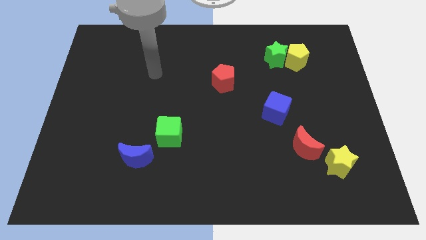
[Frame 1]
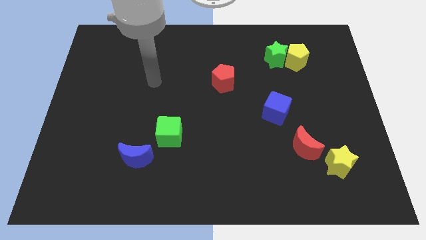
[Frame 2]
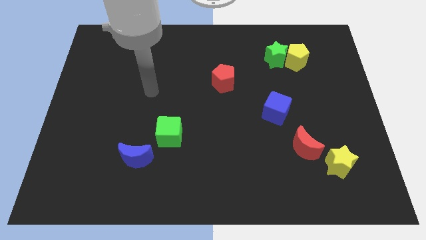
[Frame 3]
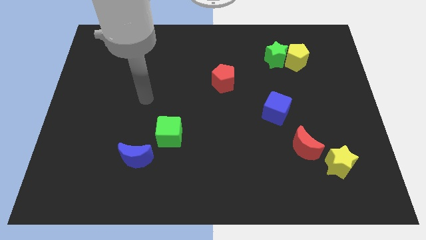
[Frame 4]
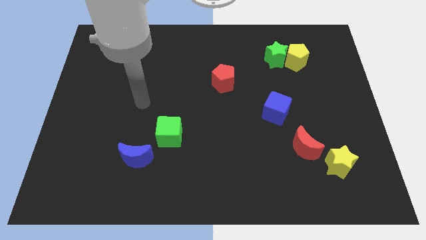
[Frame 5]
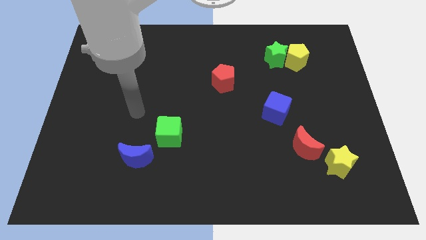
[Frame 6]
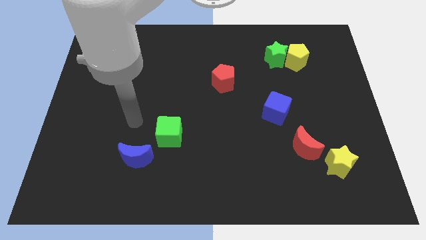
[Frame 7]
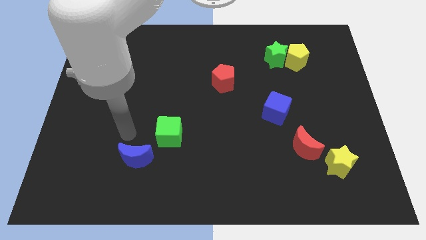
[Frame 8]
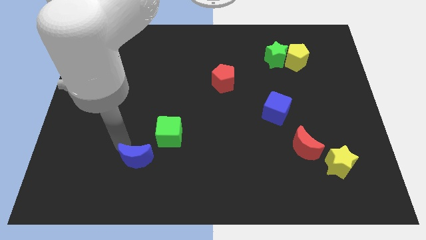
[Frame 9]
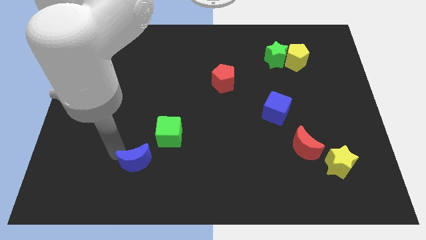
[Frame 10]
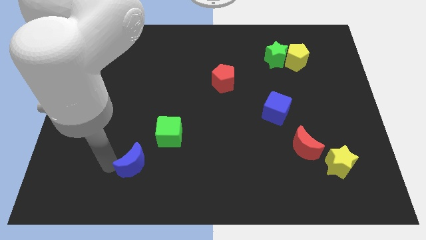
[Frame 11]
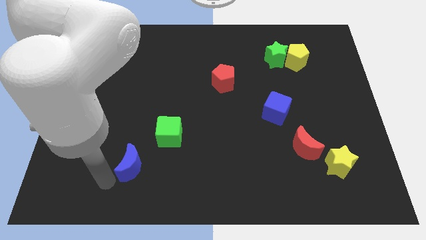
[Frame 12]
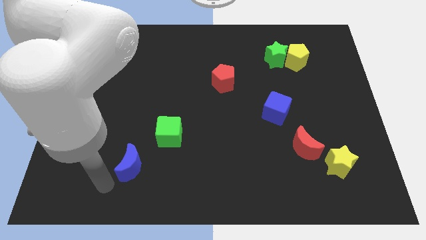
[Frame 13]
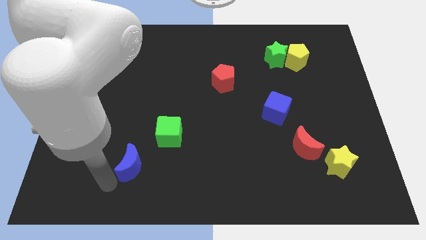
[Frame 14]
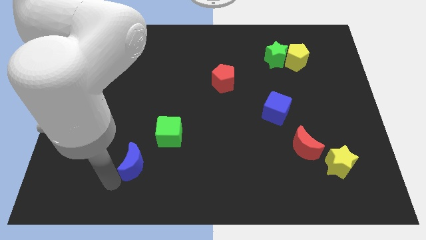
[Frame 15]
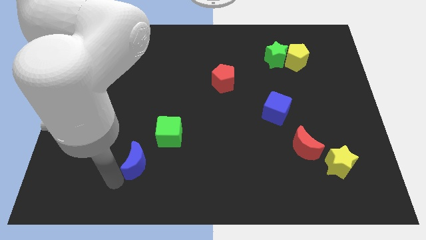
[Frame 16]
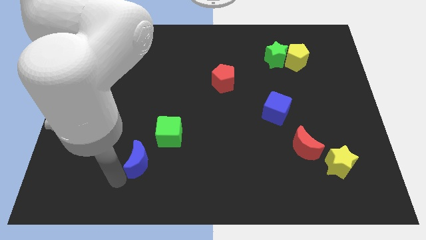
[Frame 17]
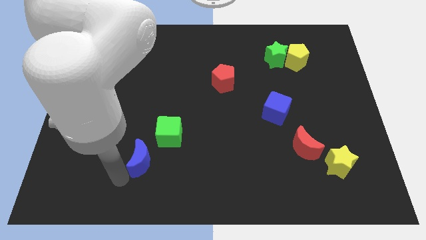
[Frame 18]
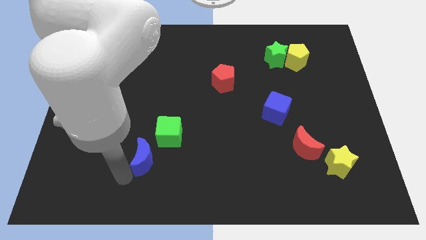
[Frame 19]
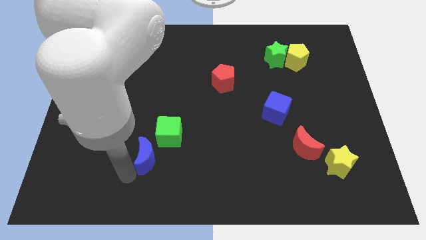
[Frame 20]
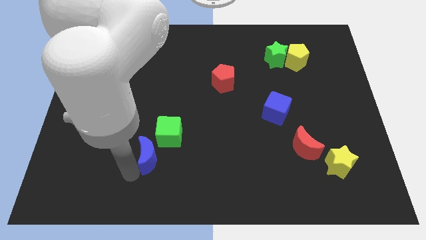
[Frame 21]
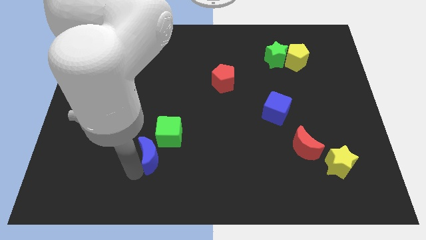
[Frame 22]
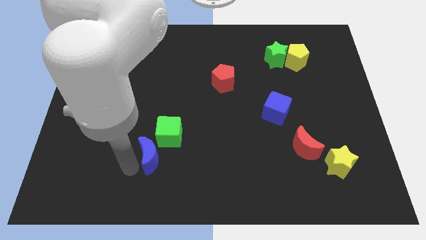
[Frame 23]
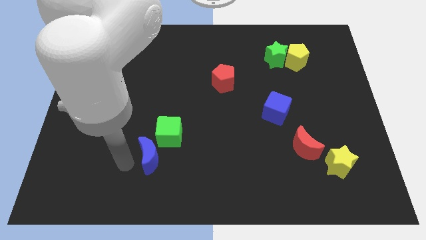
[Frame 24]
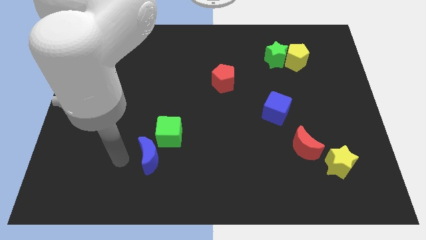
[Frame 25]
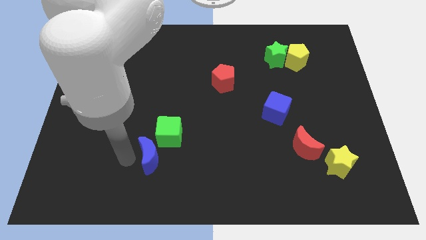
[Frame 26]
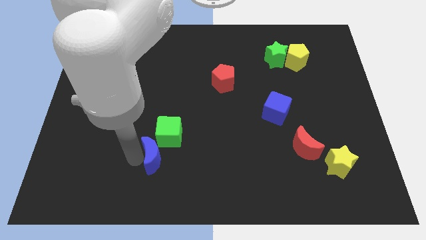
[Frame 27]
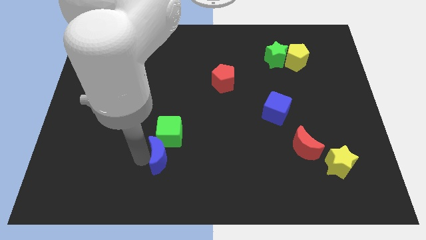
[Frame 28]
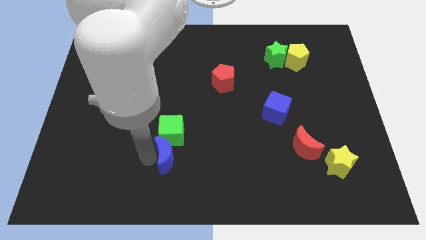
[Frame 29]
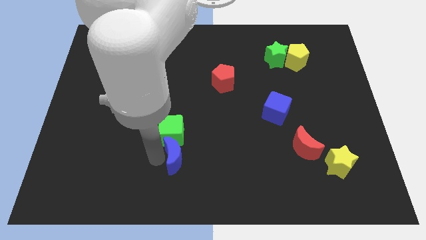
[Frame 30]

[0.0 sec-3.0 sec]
slightly push the blue moon right

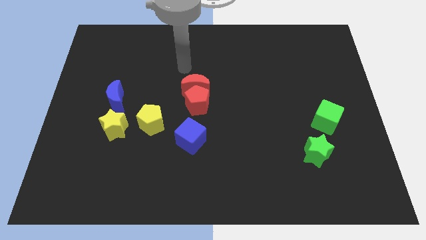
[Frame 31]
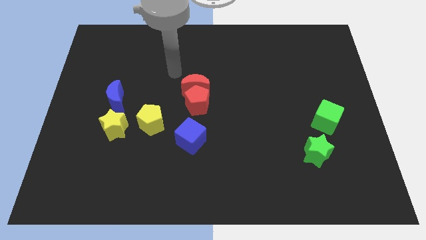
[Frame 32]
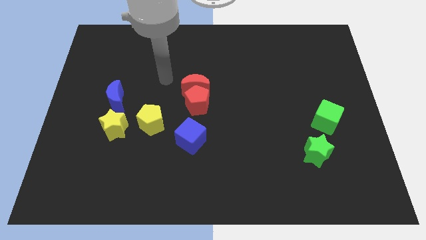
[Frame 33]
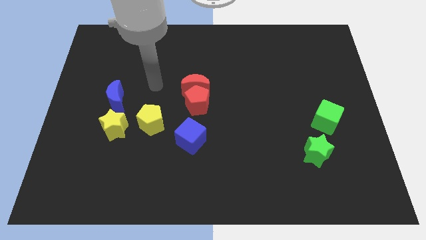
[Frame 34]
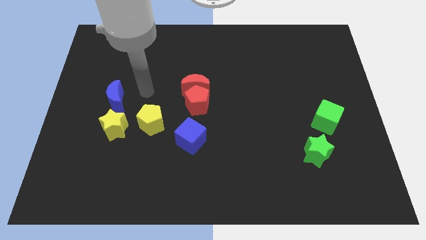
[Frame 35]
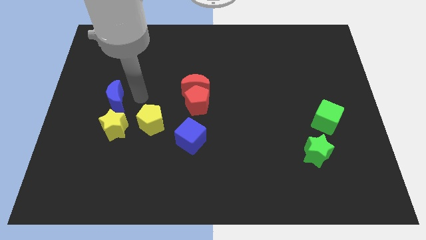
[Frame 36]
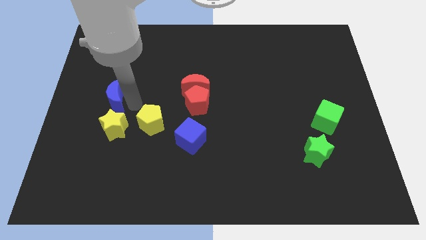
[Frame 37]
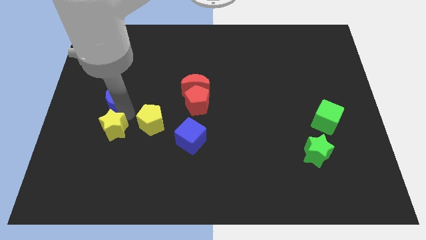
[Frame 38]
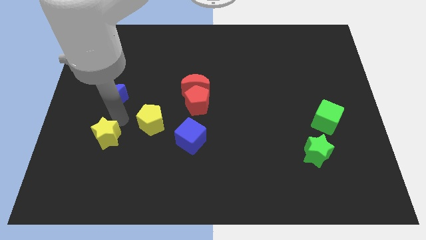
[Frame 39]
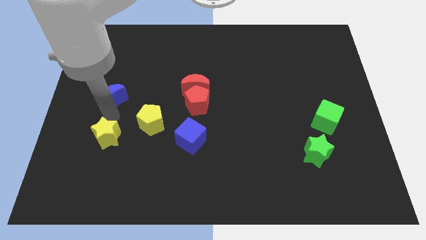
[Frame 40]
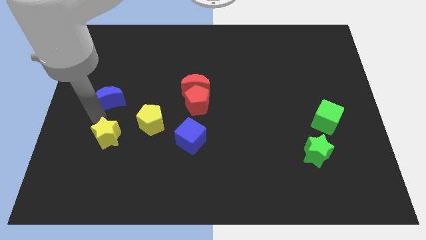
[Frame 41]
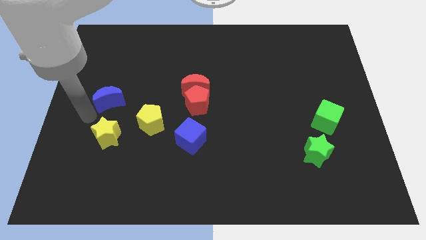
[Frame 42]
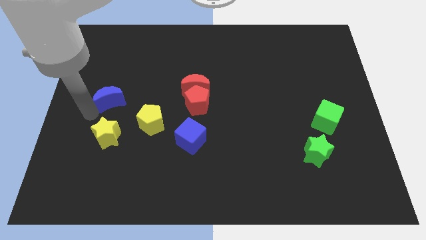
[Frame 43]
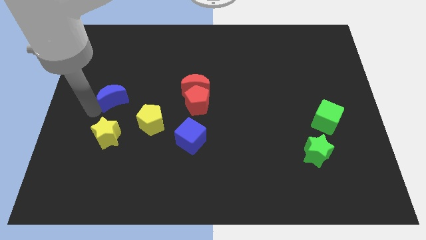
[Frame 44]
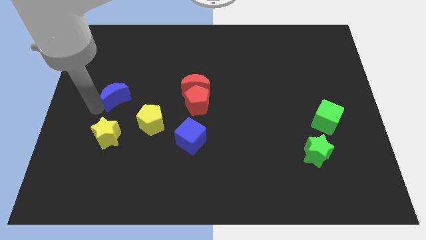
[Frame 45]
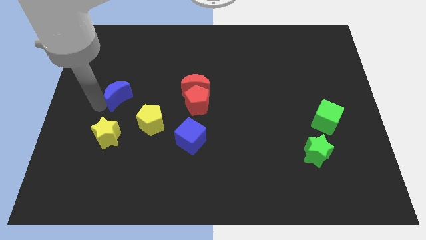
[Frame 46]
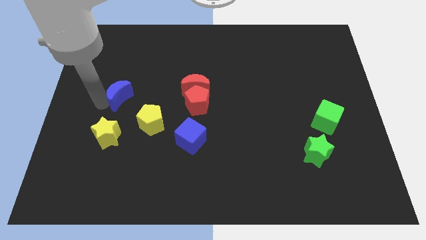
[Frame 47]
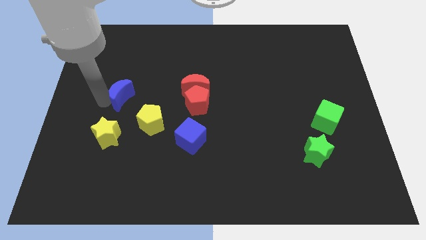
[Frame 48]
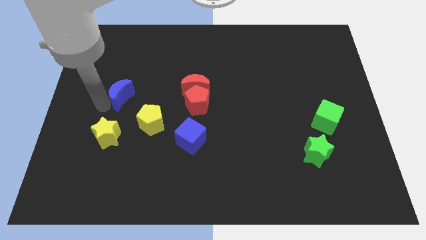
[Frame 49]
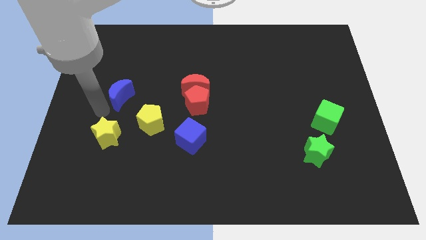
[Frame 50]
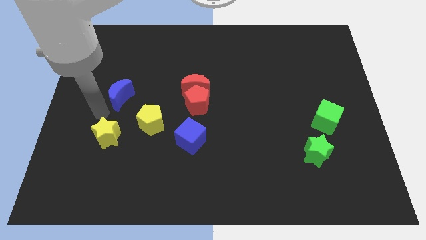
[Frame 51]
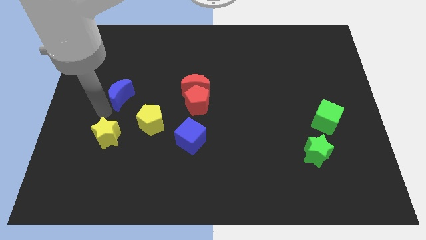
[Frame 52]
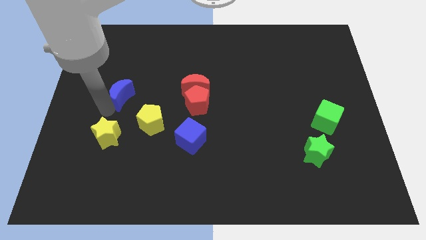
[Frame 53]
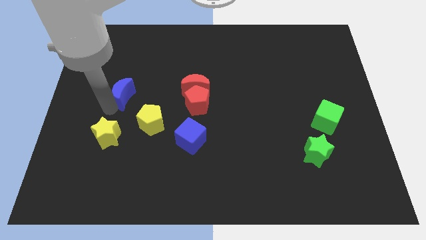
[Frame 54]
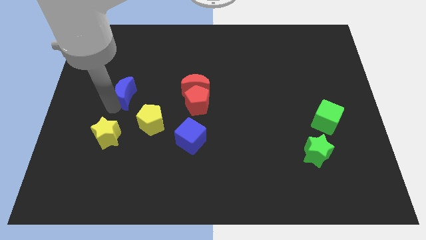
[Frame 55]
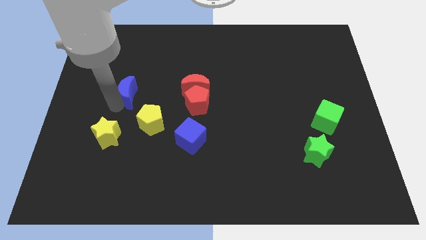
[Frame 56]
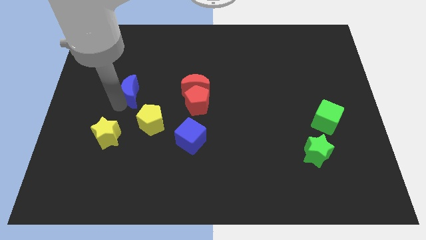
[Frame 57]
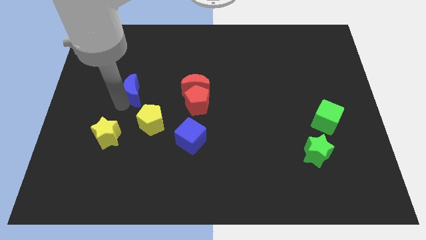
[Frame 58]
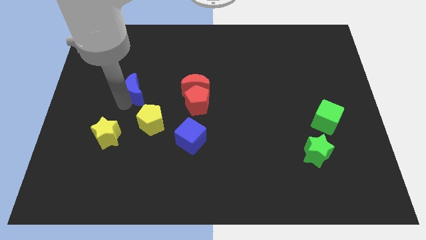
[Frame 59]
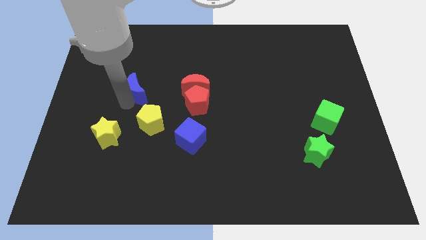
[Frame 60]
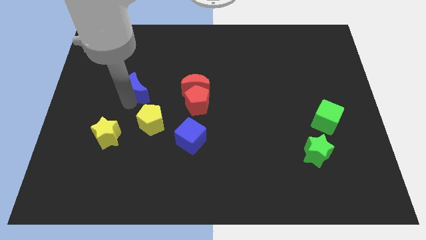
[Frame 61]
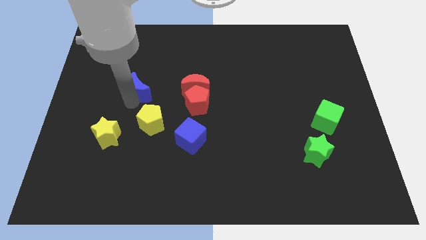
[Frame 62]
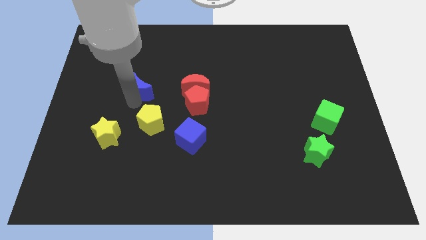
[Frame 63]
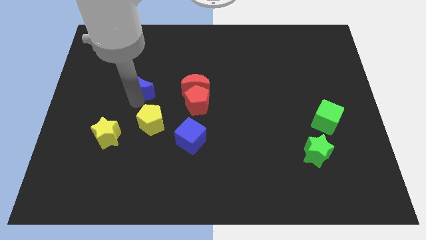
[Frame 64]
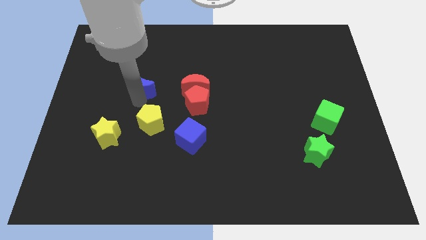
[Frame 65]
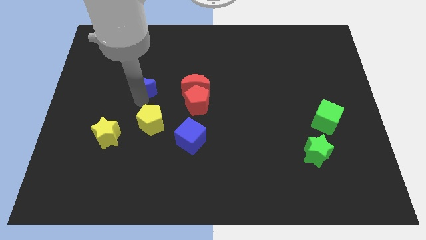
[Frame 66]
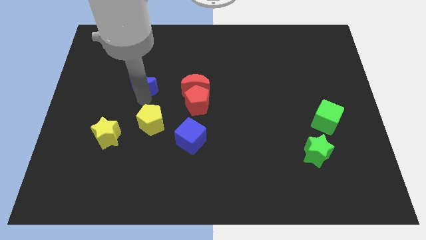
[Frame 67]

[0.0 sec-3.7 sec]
slightly push the blue moon upwards and then right

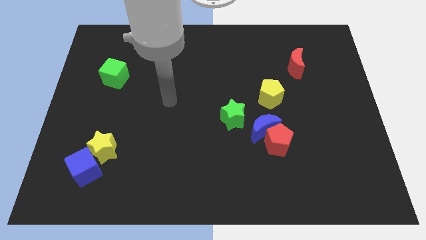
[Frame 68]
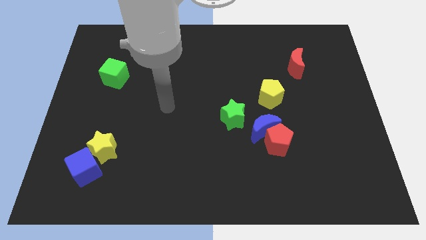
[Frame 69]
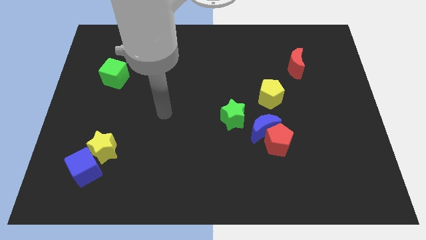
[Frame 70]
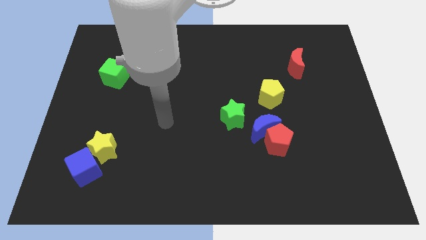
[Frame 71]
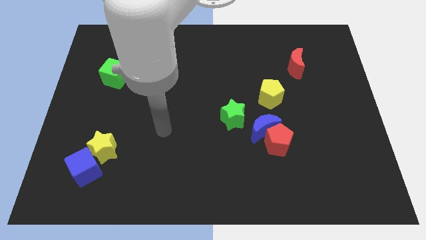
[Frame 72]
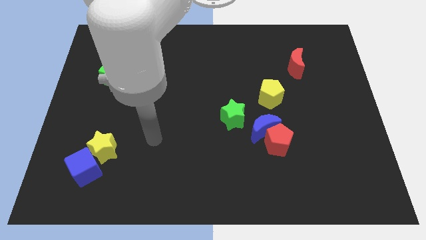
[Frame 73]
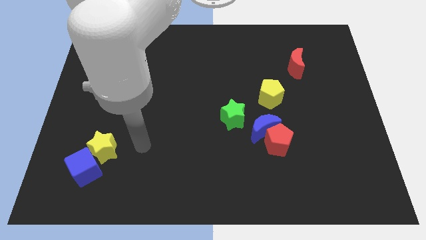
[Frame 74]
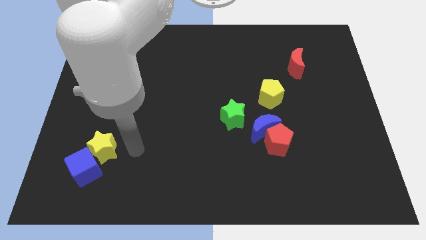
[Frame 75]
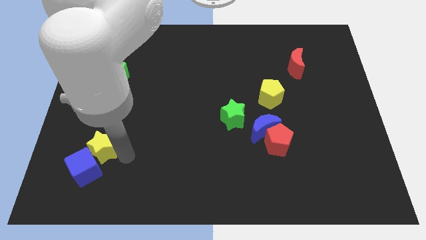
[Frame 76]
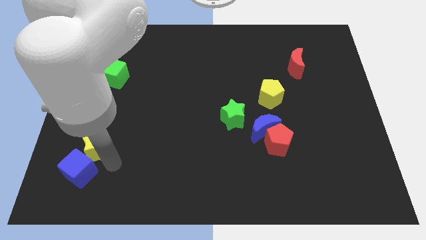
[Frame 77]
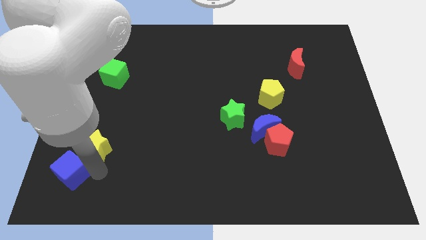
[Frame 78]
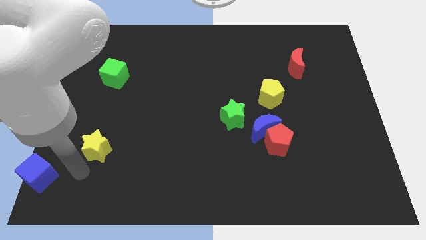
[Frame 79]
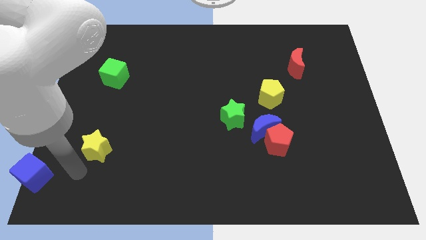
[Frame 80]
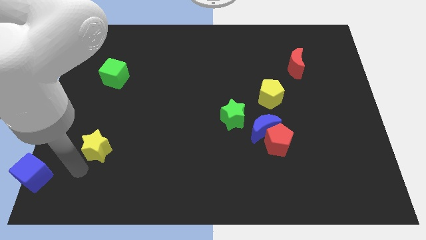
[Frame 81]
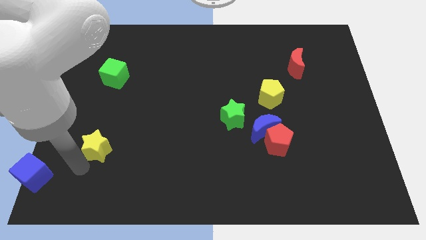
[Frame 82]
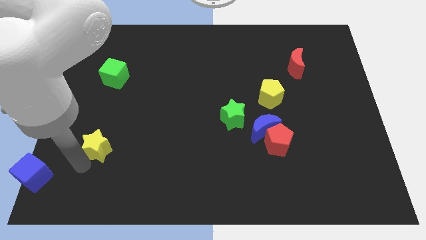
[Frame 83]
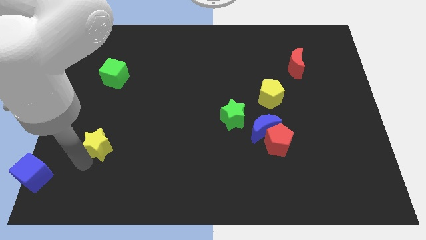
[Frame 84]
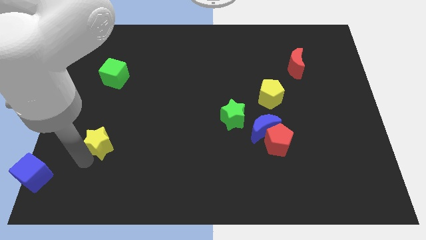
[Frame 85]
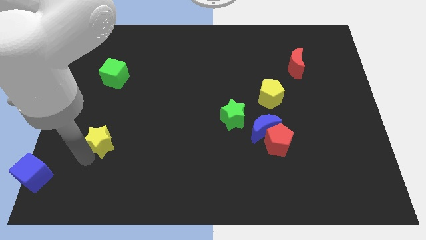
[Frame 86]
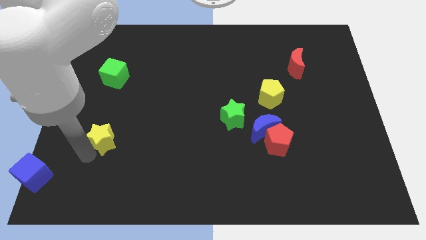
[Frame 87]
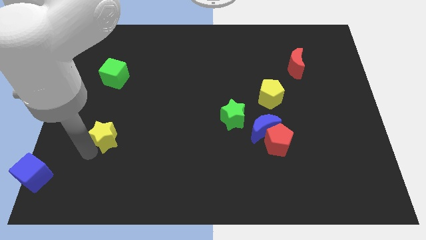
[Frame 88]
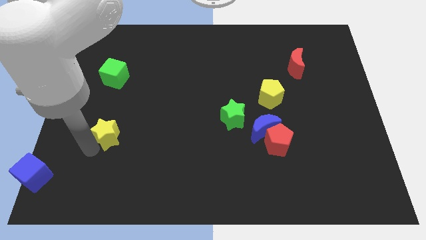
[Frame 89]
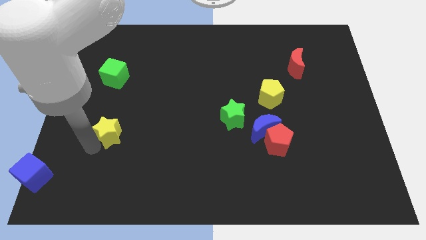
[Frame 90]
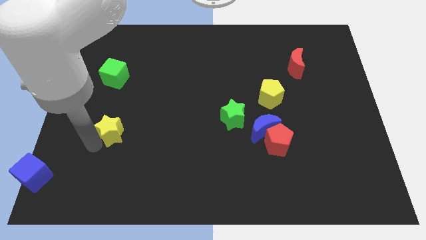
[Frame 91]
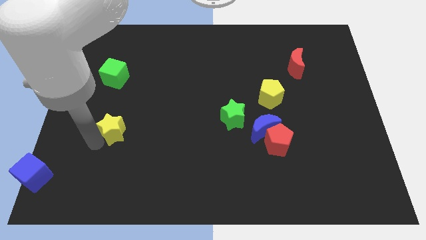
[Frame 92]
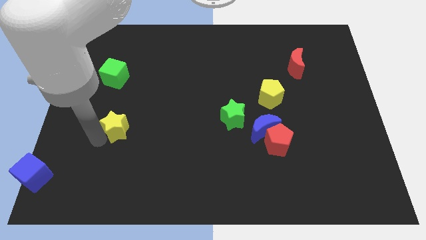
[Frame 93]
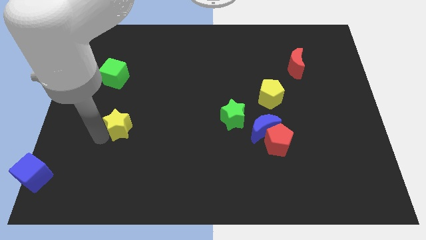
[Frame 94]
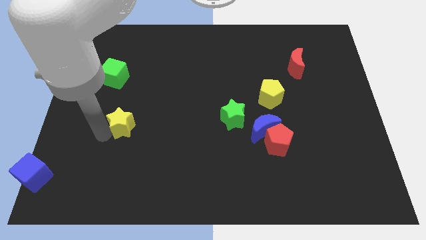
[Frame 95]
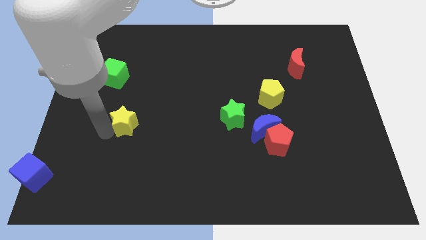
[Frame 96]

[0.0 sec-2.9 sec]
push the yellow star slightly upwards and right diagonally
